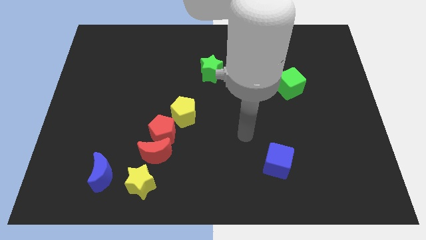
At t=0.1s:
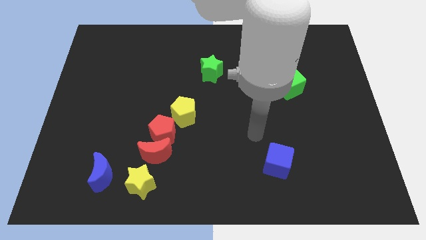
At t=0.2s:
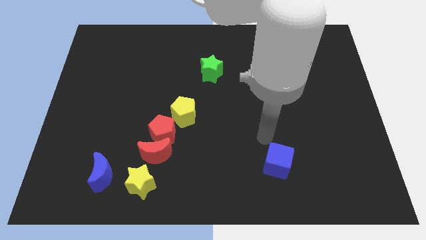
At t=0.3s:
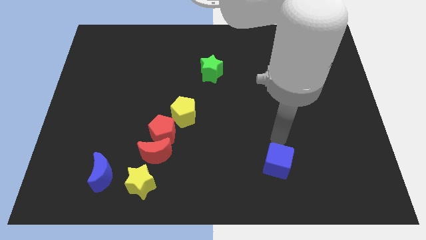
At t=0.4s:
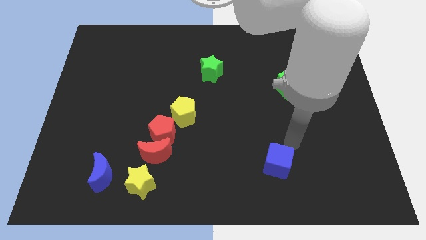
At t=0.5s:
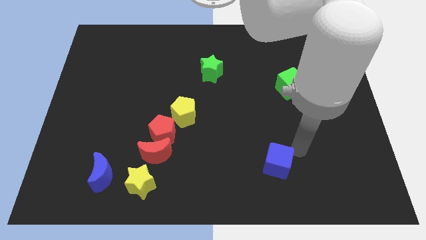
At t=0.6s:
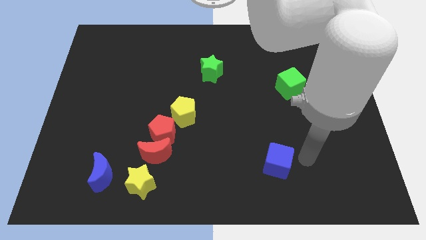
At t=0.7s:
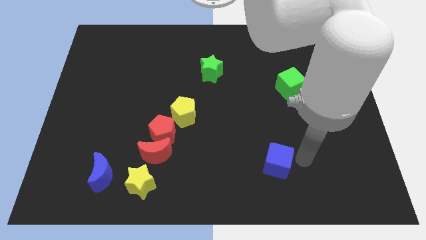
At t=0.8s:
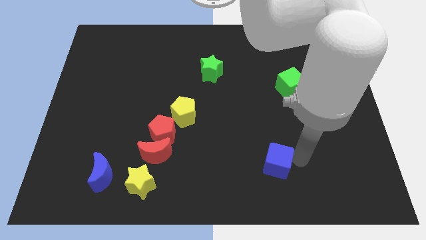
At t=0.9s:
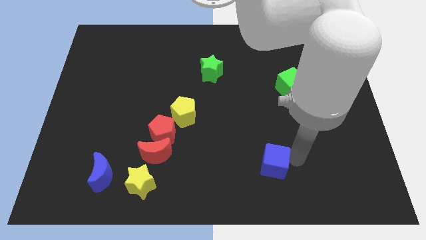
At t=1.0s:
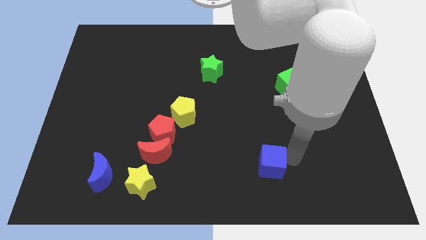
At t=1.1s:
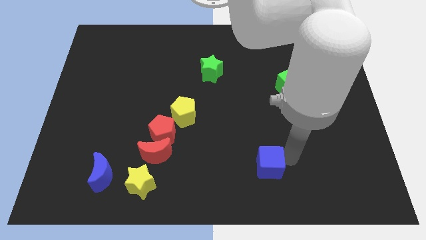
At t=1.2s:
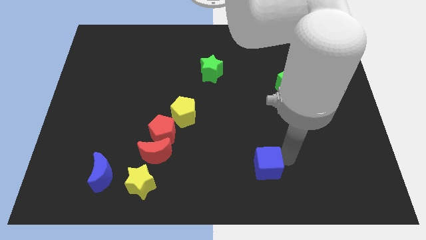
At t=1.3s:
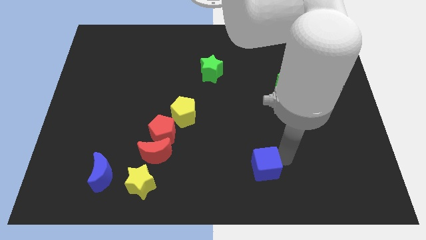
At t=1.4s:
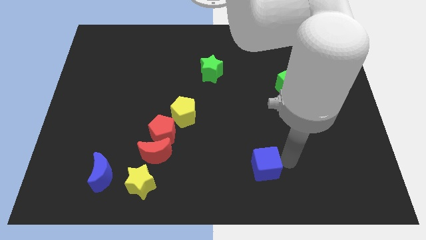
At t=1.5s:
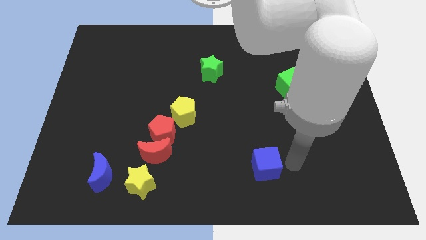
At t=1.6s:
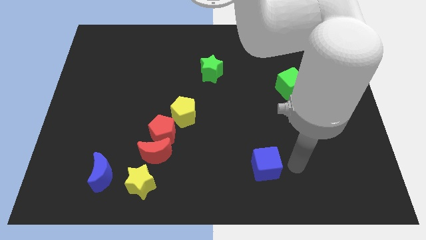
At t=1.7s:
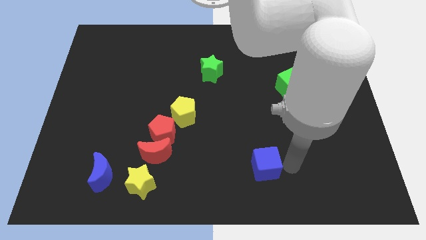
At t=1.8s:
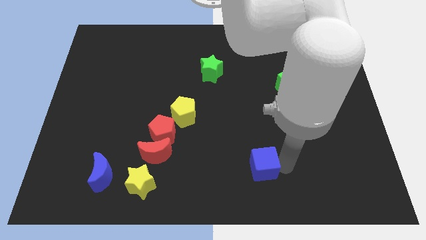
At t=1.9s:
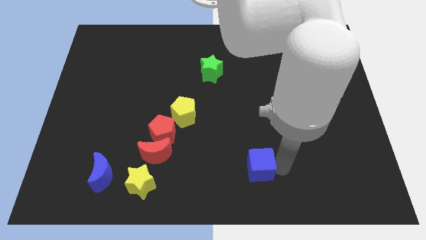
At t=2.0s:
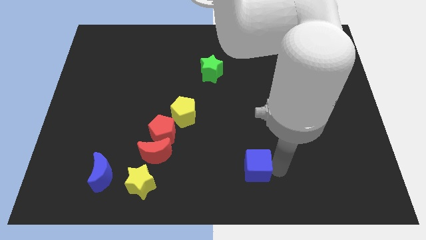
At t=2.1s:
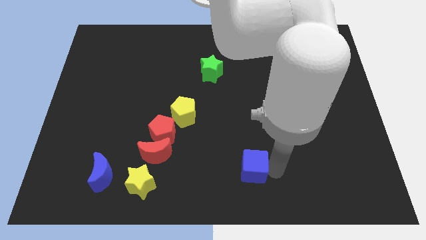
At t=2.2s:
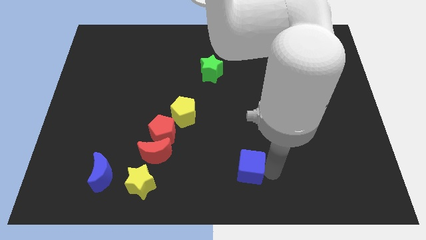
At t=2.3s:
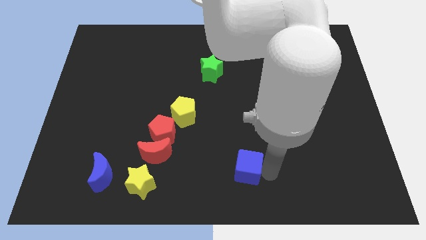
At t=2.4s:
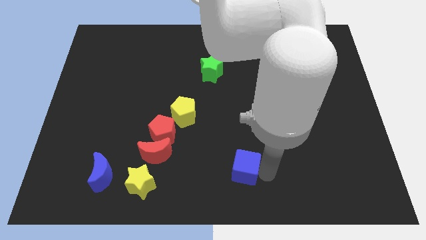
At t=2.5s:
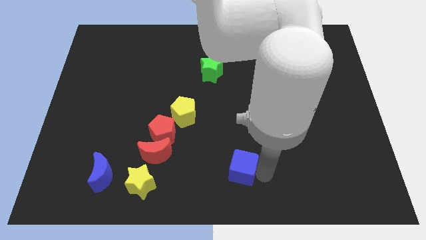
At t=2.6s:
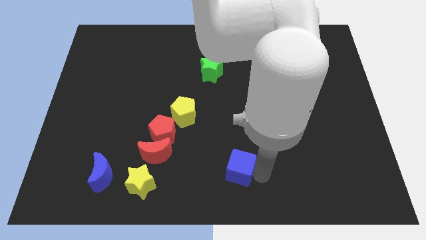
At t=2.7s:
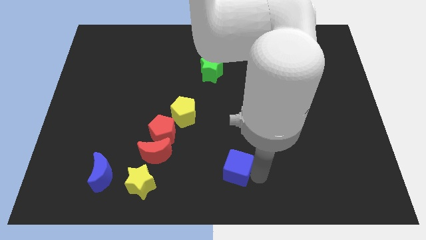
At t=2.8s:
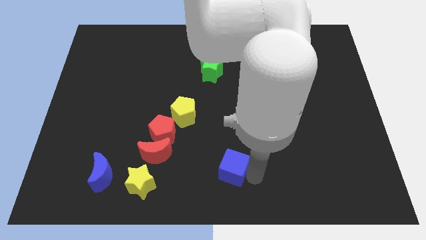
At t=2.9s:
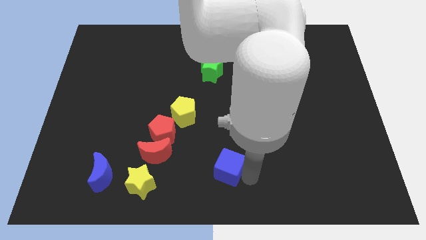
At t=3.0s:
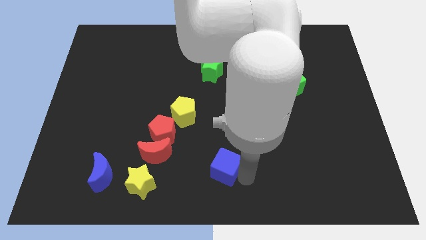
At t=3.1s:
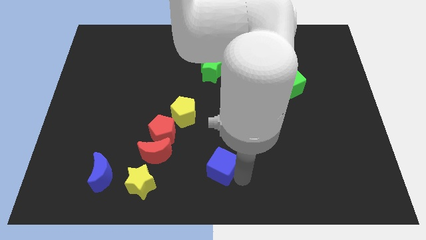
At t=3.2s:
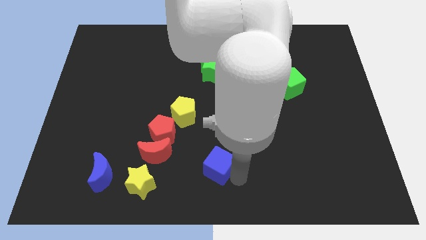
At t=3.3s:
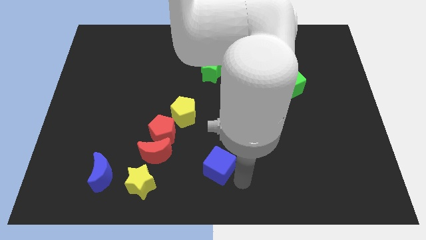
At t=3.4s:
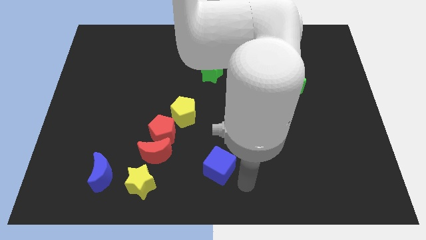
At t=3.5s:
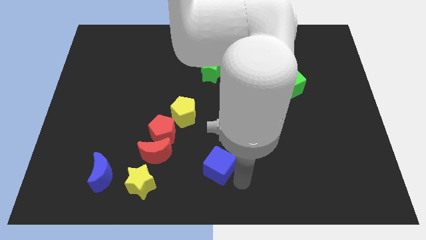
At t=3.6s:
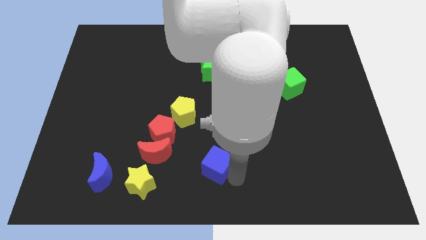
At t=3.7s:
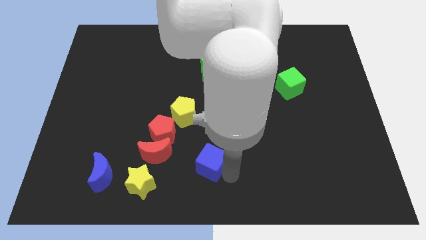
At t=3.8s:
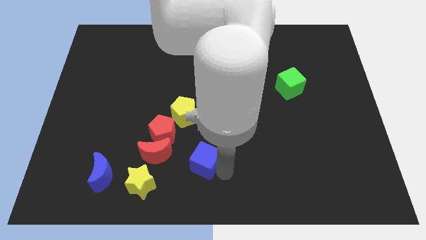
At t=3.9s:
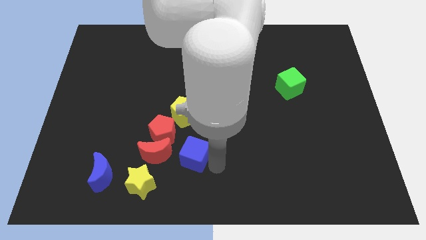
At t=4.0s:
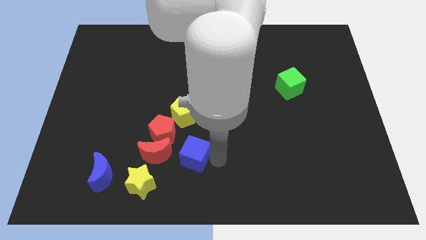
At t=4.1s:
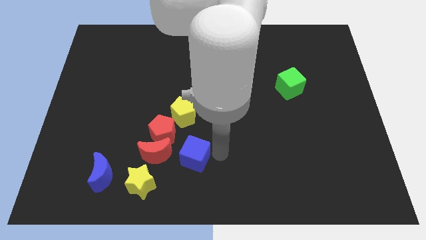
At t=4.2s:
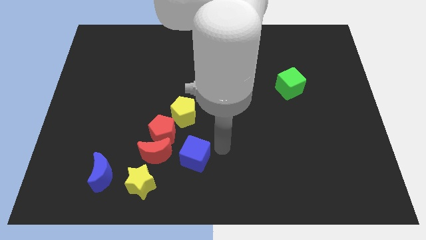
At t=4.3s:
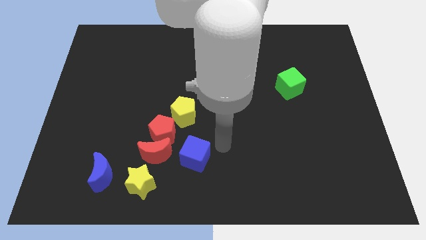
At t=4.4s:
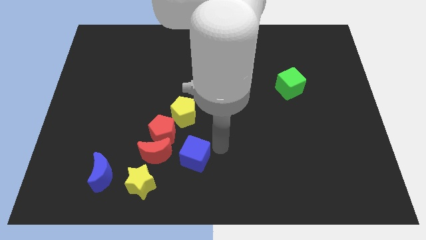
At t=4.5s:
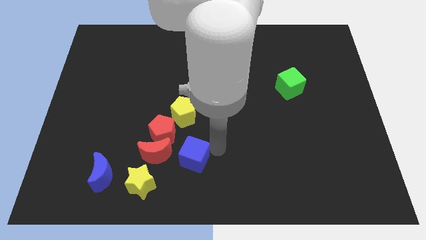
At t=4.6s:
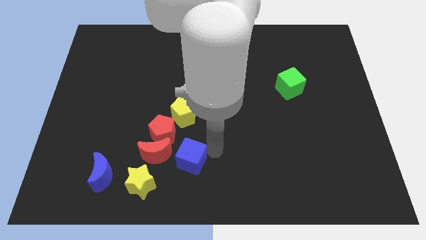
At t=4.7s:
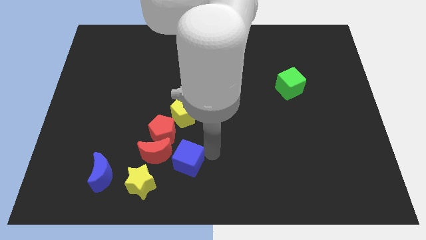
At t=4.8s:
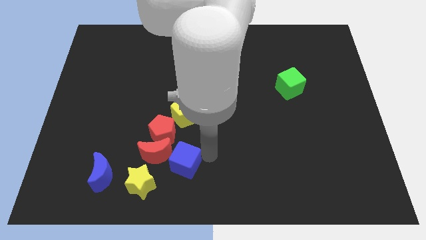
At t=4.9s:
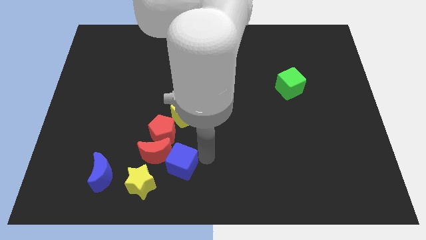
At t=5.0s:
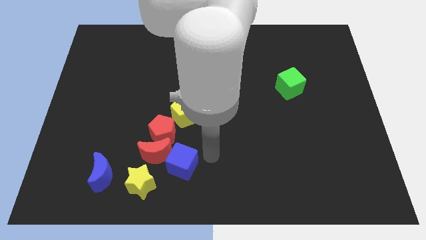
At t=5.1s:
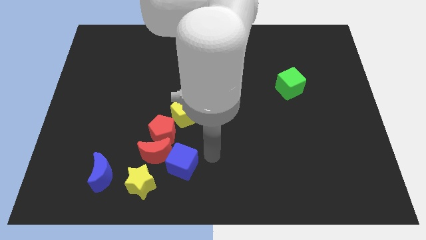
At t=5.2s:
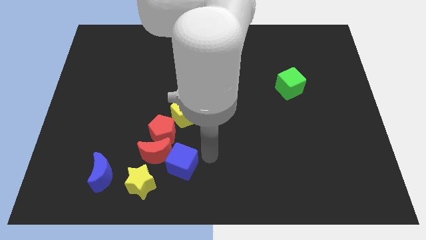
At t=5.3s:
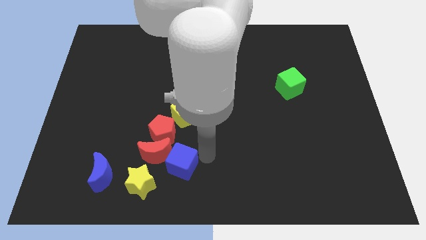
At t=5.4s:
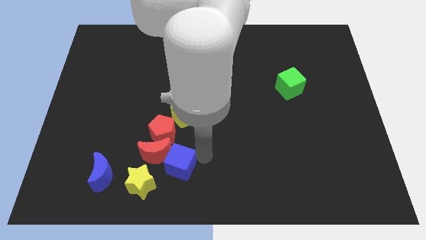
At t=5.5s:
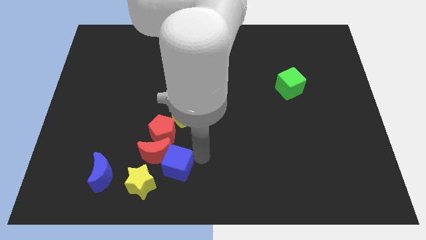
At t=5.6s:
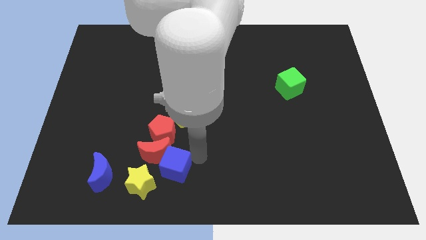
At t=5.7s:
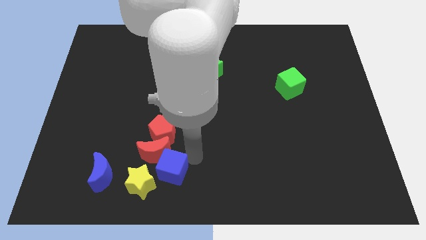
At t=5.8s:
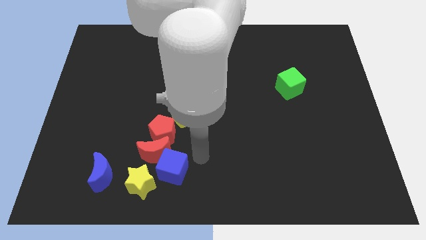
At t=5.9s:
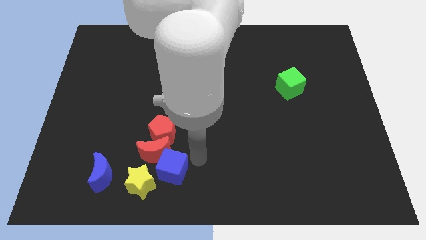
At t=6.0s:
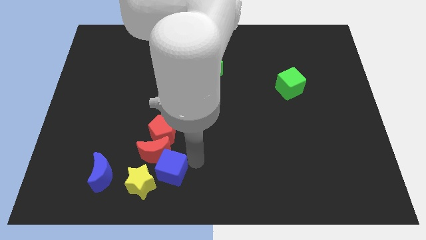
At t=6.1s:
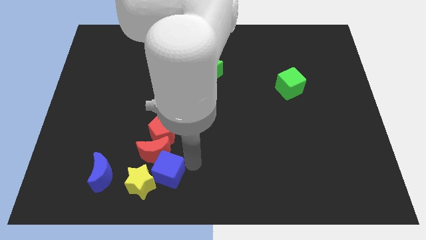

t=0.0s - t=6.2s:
slide the blue cube next to the yellow star

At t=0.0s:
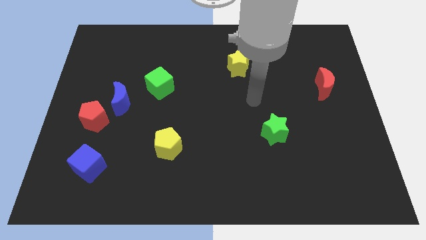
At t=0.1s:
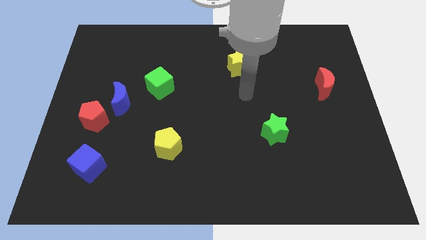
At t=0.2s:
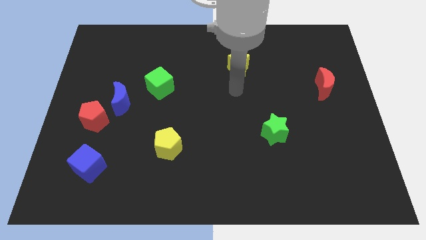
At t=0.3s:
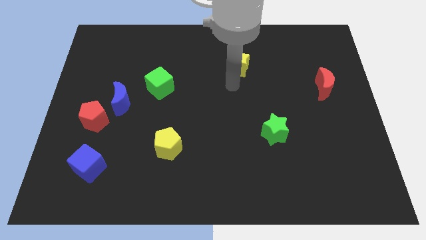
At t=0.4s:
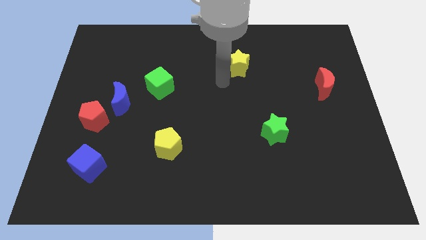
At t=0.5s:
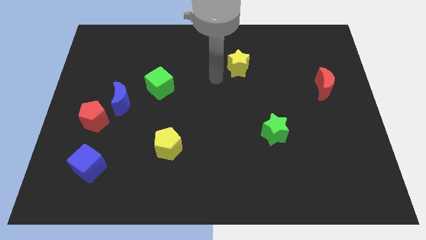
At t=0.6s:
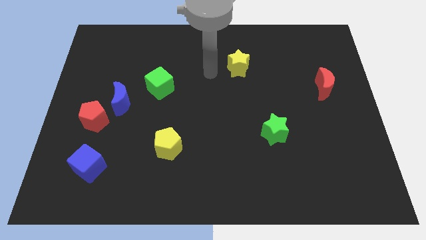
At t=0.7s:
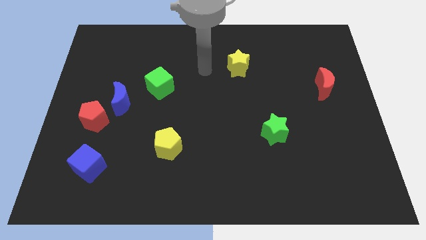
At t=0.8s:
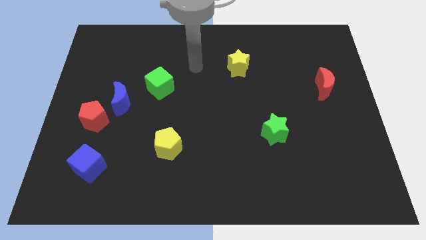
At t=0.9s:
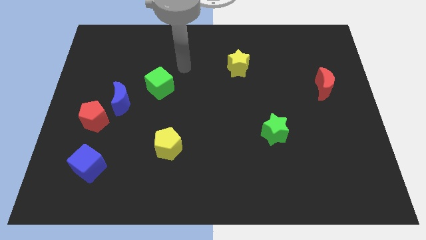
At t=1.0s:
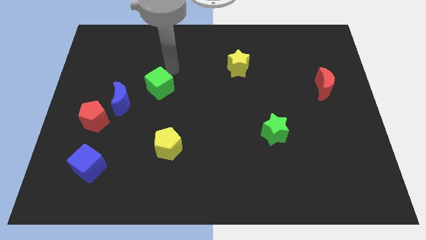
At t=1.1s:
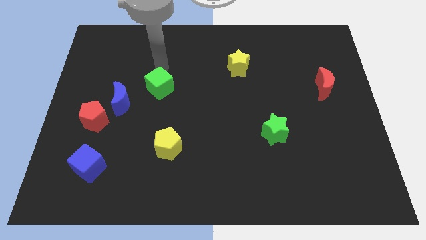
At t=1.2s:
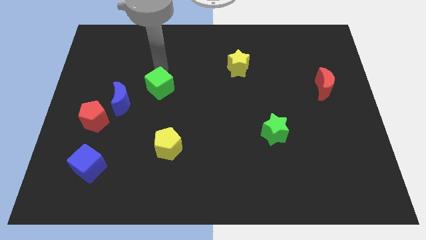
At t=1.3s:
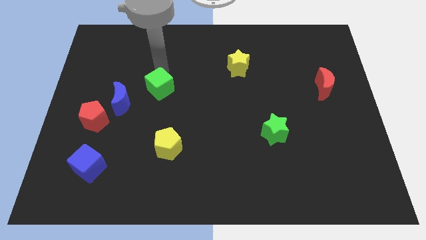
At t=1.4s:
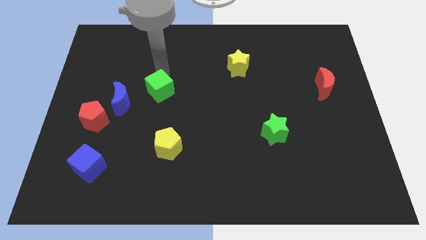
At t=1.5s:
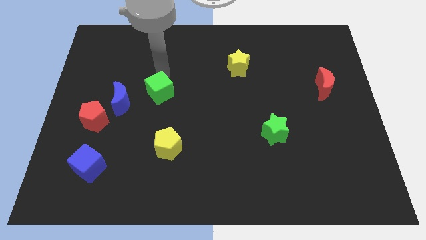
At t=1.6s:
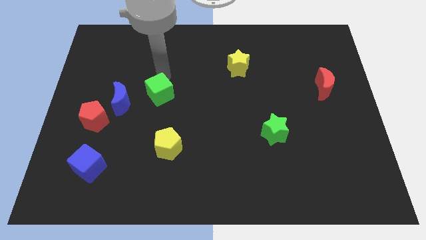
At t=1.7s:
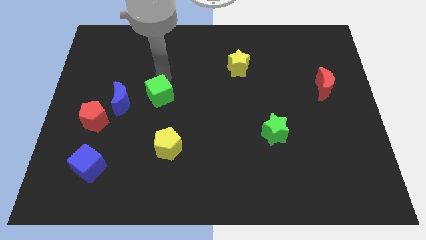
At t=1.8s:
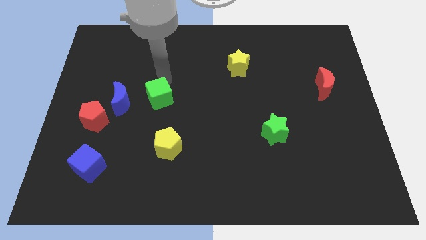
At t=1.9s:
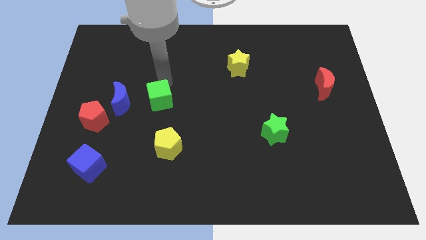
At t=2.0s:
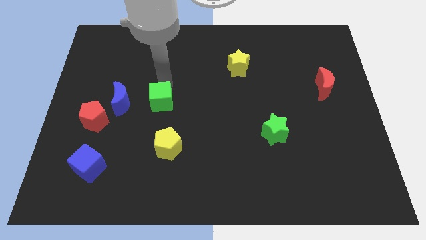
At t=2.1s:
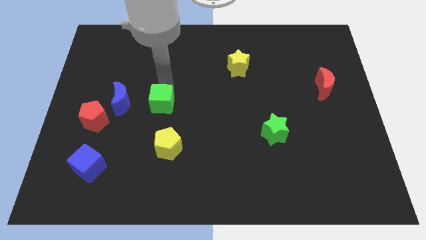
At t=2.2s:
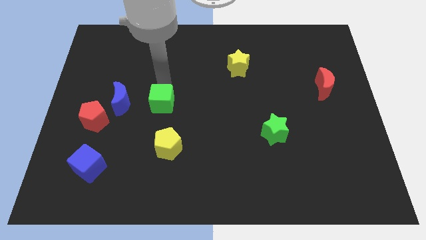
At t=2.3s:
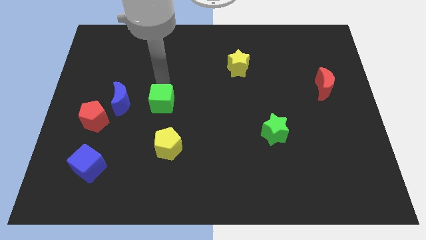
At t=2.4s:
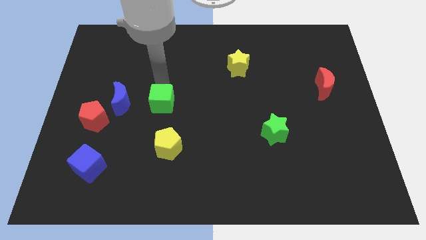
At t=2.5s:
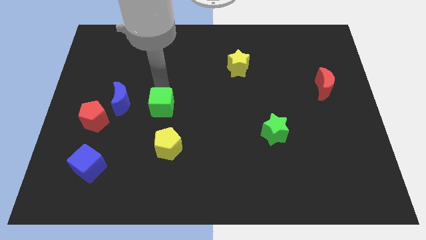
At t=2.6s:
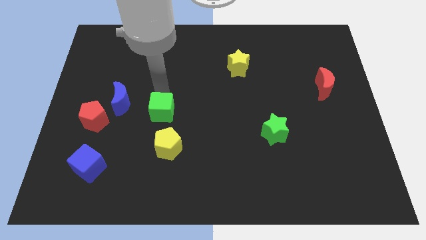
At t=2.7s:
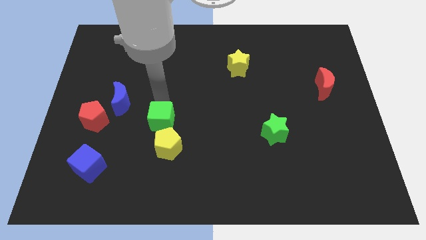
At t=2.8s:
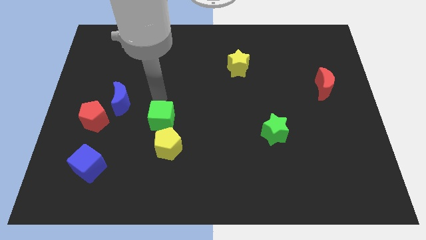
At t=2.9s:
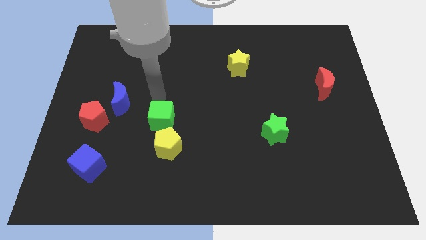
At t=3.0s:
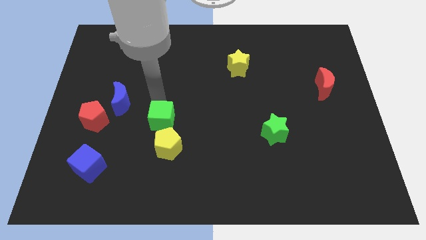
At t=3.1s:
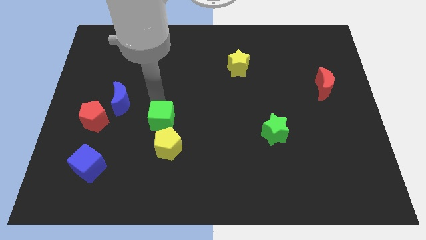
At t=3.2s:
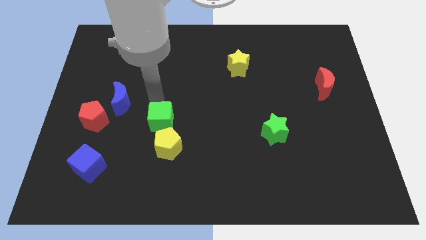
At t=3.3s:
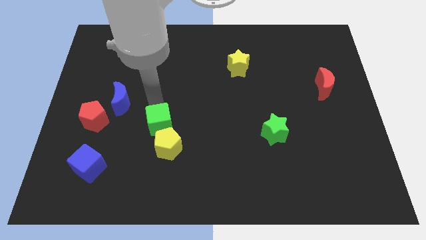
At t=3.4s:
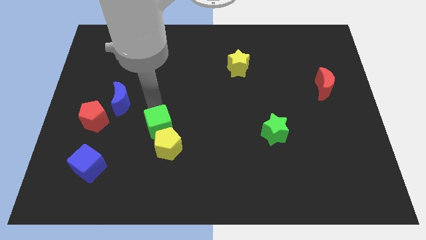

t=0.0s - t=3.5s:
slide the green cube next to the yellow pentagon
